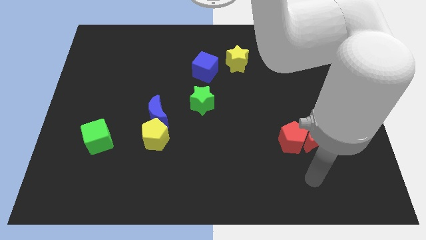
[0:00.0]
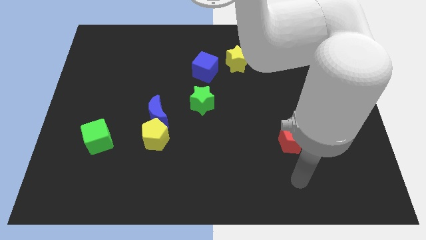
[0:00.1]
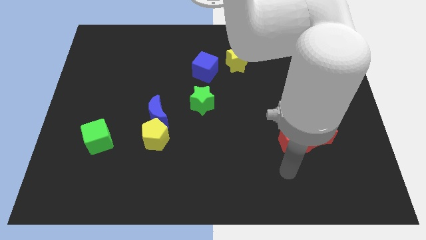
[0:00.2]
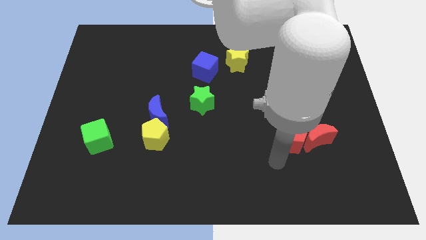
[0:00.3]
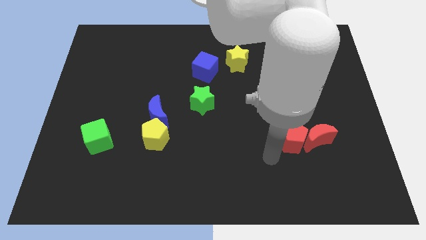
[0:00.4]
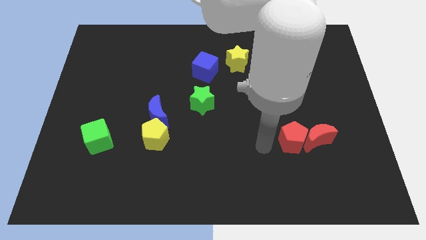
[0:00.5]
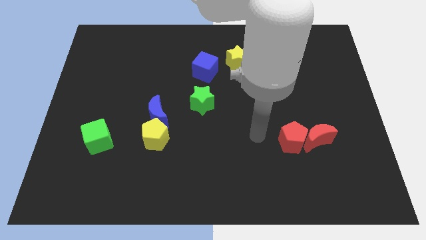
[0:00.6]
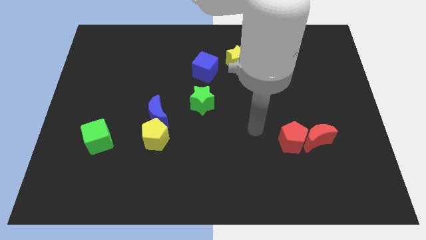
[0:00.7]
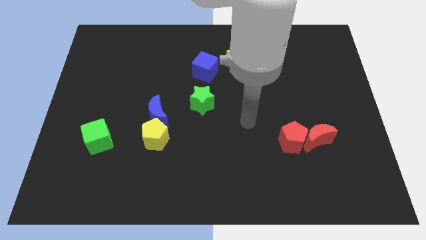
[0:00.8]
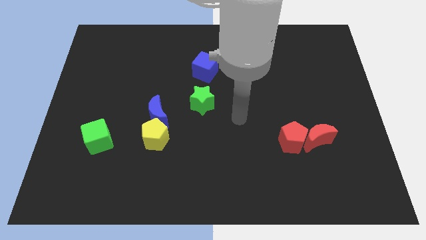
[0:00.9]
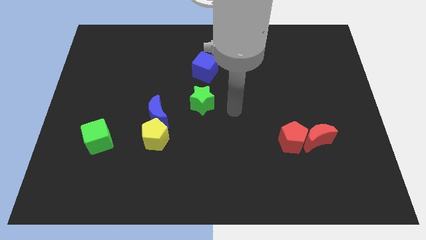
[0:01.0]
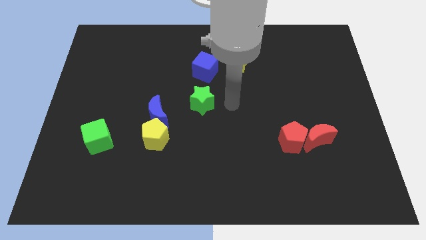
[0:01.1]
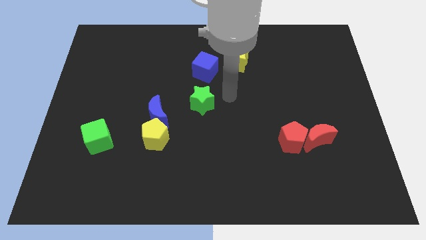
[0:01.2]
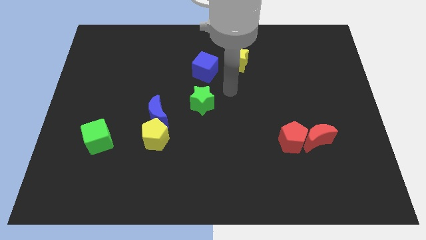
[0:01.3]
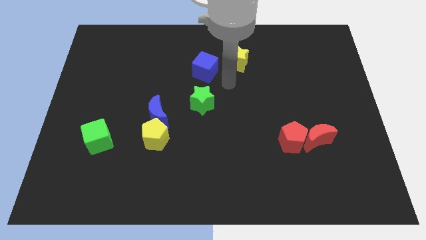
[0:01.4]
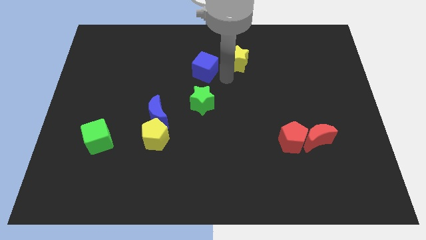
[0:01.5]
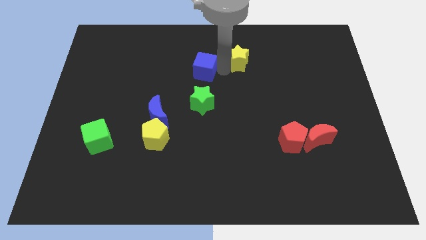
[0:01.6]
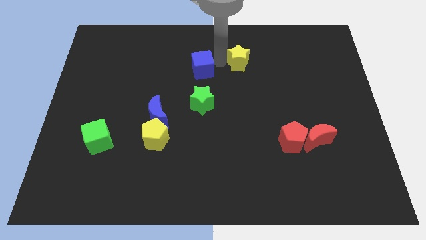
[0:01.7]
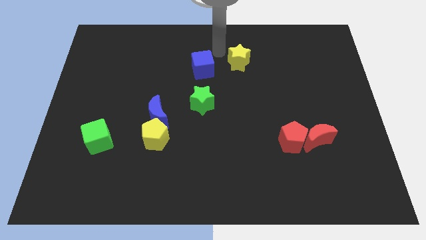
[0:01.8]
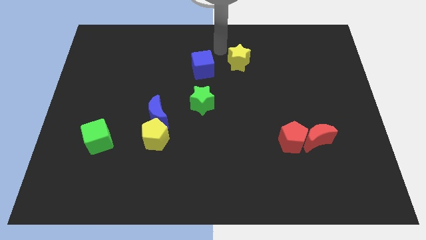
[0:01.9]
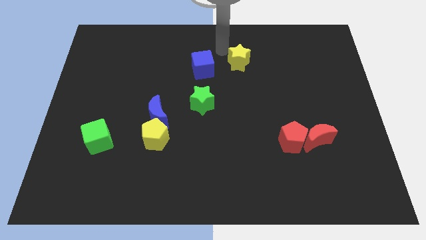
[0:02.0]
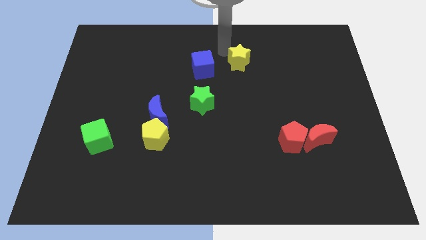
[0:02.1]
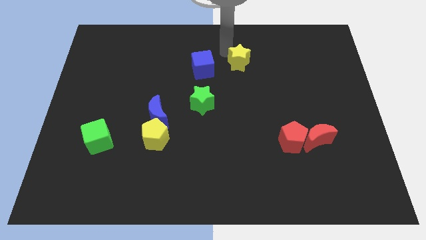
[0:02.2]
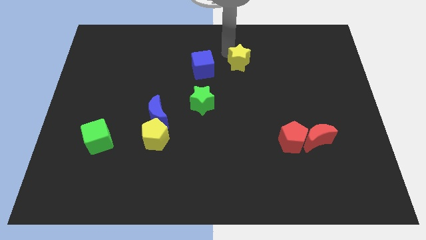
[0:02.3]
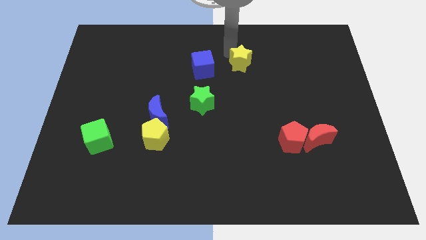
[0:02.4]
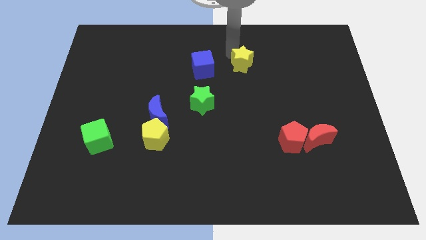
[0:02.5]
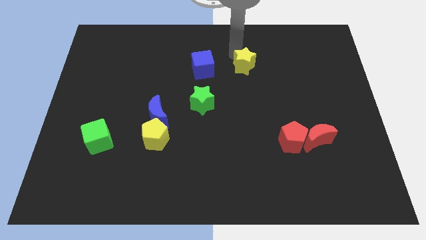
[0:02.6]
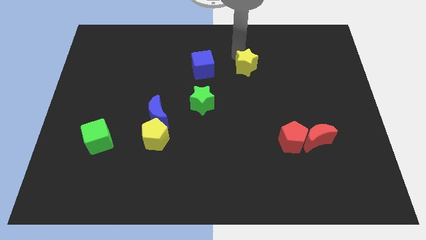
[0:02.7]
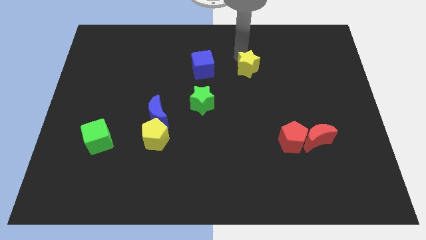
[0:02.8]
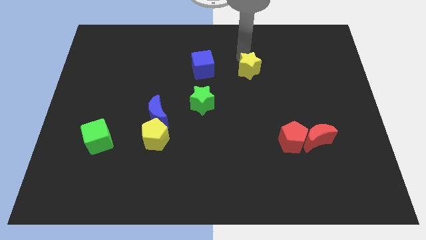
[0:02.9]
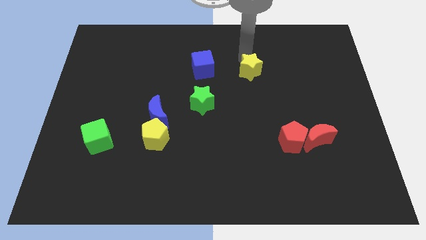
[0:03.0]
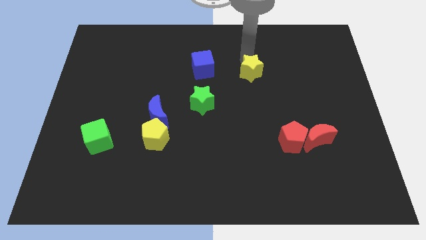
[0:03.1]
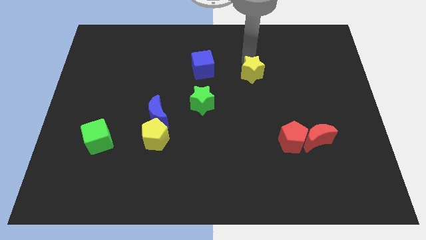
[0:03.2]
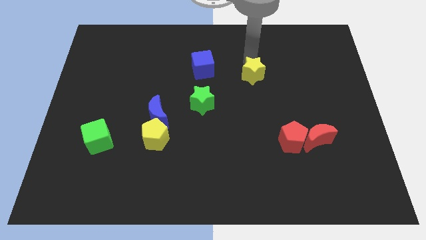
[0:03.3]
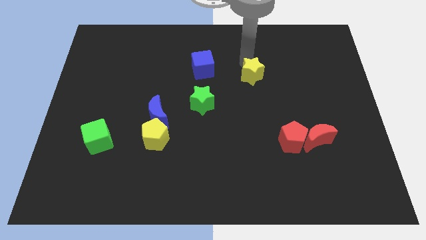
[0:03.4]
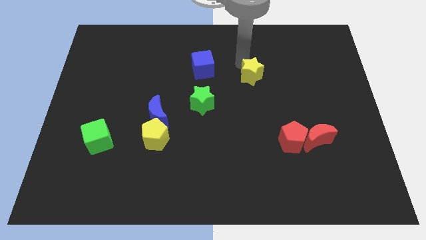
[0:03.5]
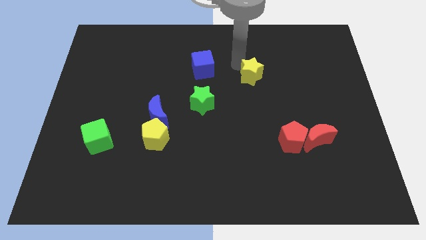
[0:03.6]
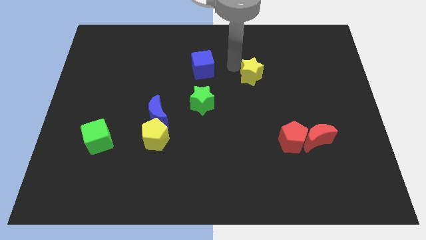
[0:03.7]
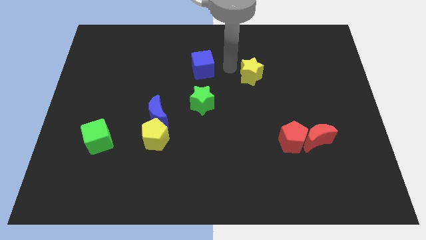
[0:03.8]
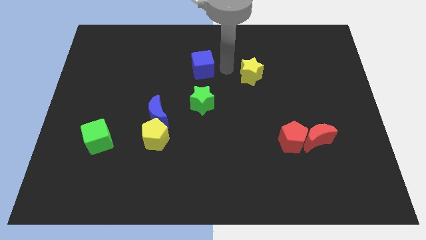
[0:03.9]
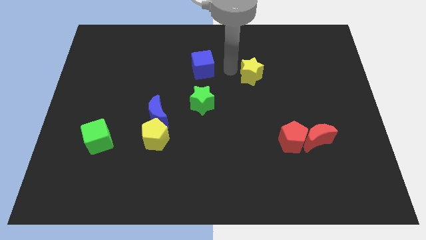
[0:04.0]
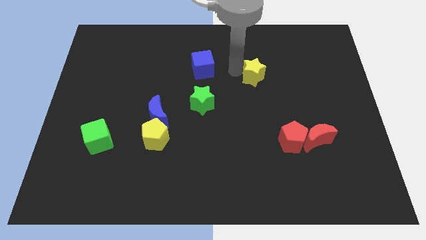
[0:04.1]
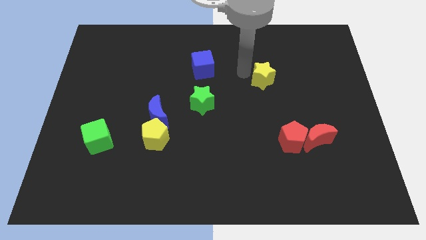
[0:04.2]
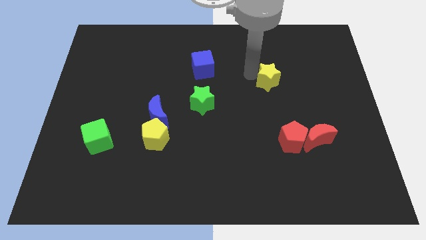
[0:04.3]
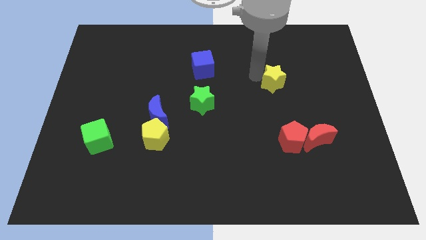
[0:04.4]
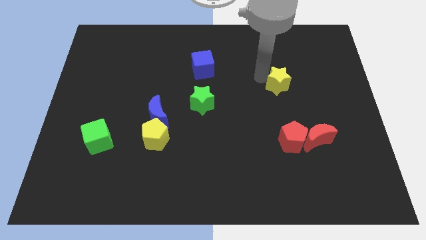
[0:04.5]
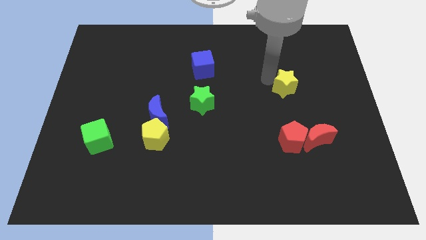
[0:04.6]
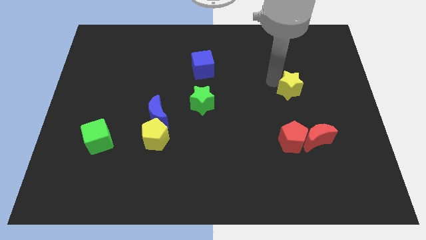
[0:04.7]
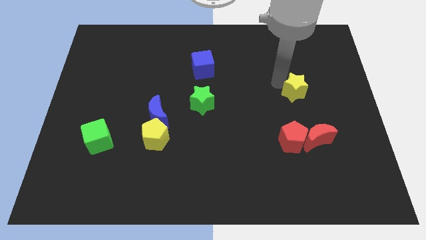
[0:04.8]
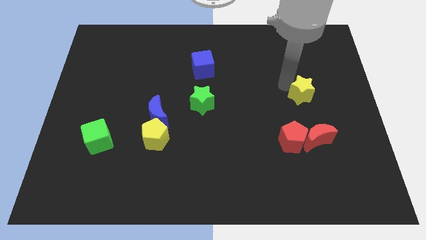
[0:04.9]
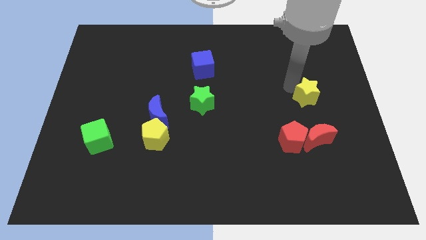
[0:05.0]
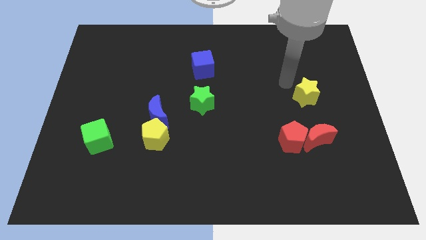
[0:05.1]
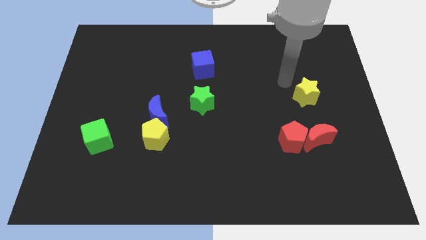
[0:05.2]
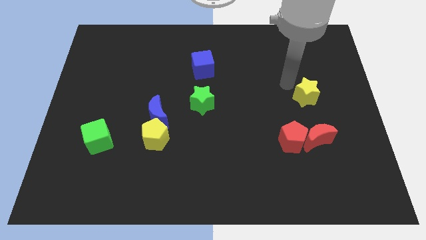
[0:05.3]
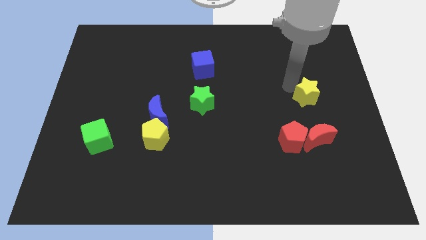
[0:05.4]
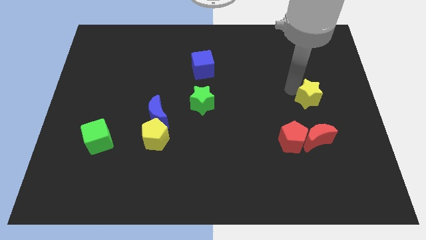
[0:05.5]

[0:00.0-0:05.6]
move the yellow star down and to the right

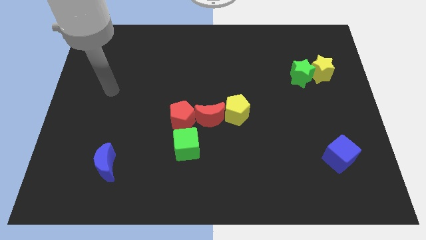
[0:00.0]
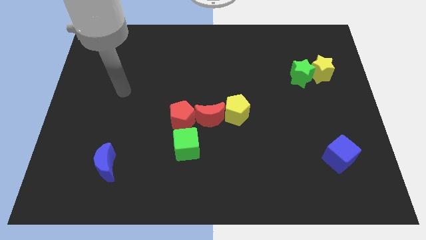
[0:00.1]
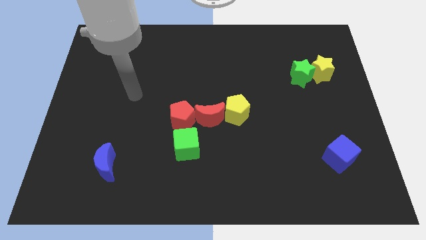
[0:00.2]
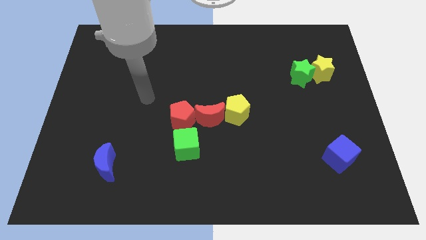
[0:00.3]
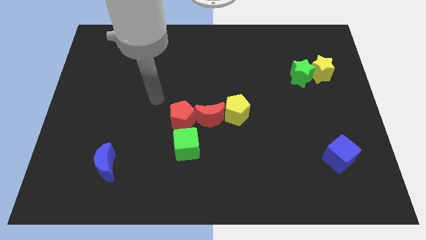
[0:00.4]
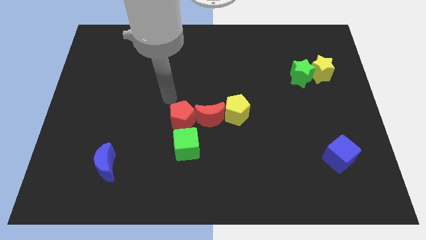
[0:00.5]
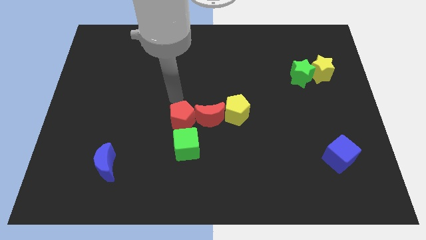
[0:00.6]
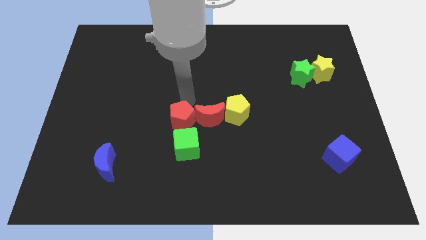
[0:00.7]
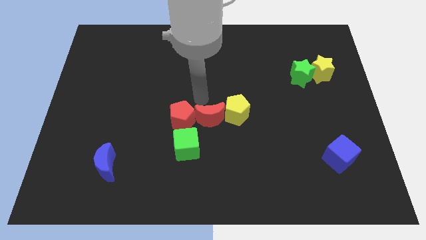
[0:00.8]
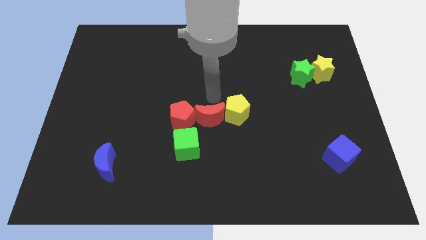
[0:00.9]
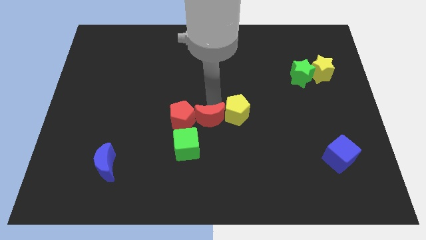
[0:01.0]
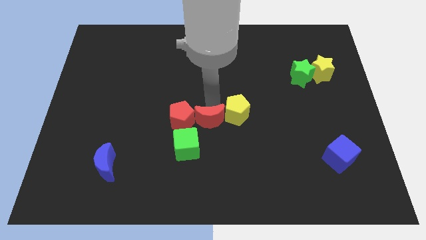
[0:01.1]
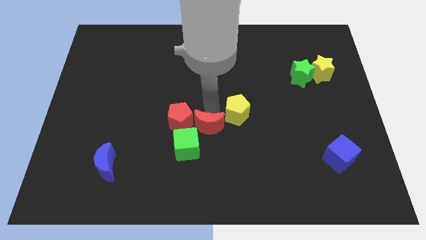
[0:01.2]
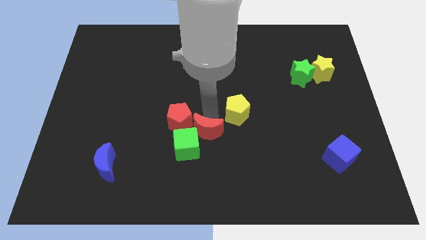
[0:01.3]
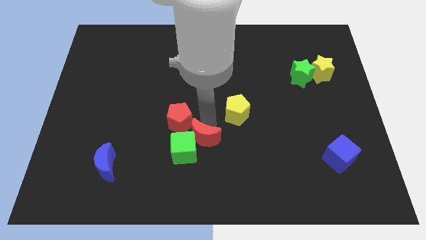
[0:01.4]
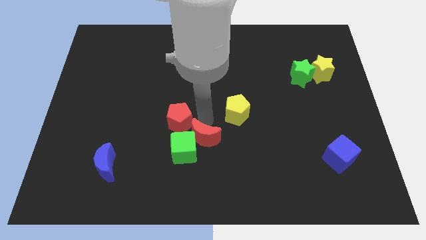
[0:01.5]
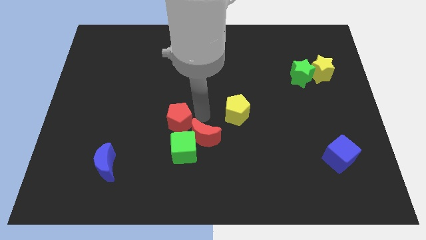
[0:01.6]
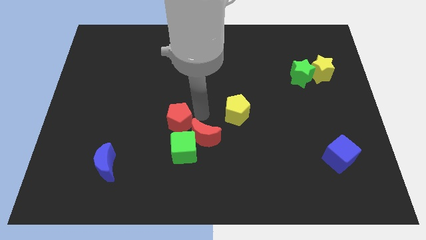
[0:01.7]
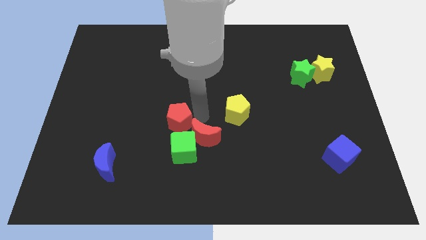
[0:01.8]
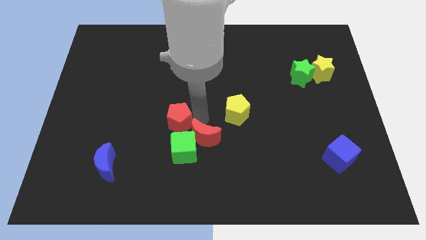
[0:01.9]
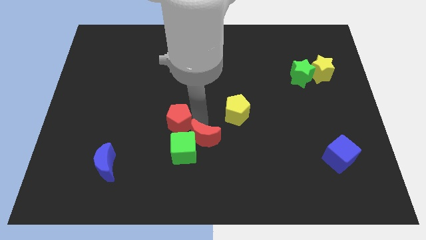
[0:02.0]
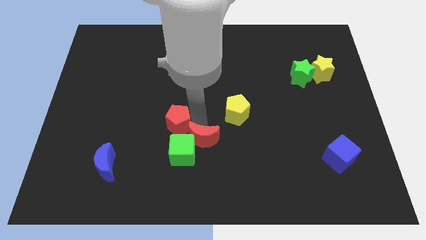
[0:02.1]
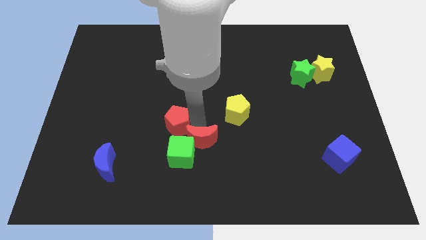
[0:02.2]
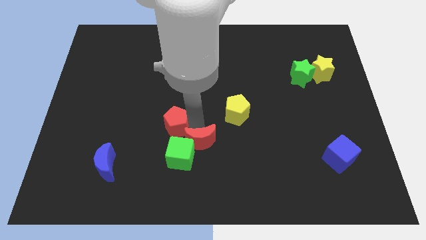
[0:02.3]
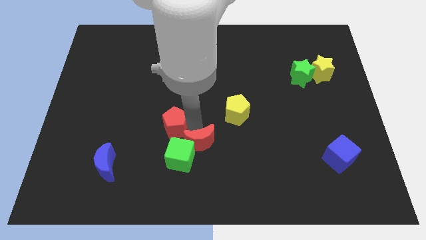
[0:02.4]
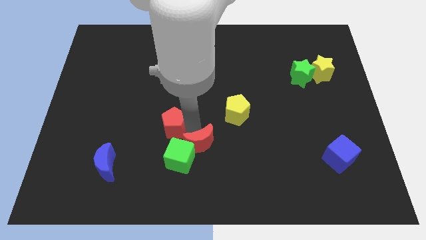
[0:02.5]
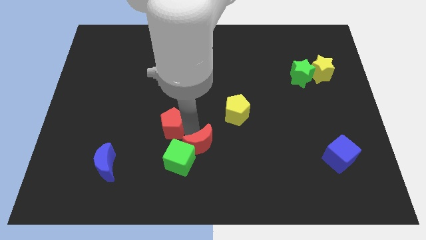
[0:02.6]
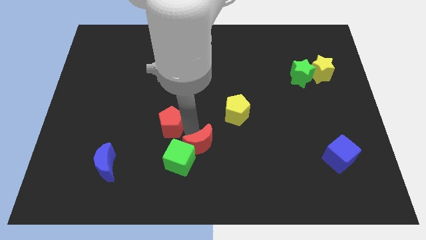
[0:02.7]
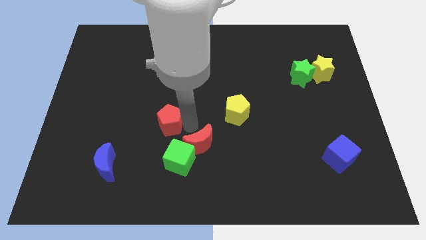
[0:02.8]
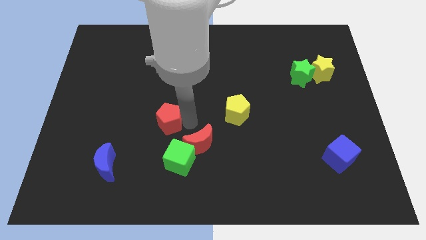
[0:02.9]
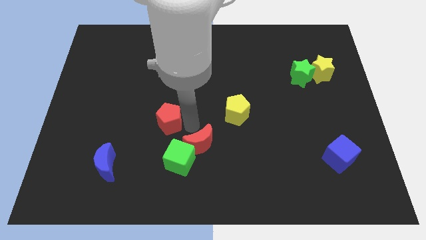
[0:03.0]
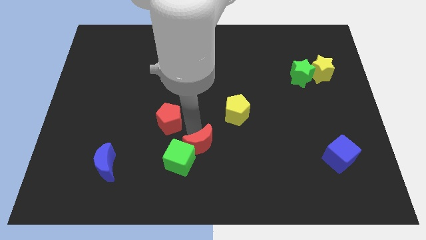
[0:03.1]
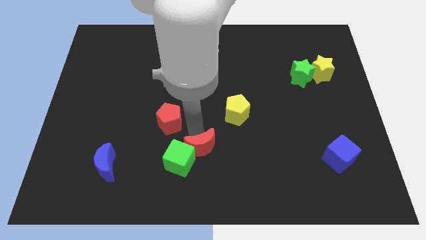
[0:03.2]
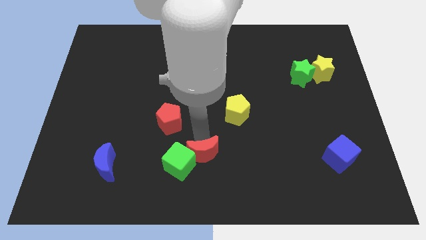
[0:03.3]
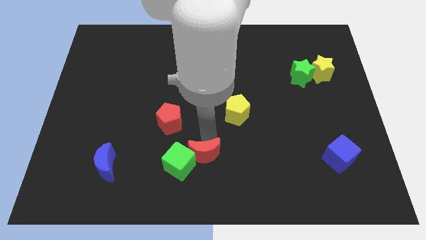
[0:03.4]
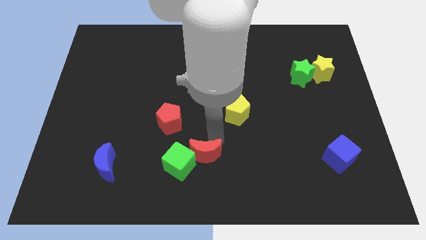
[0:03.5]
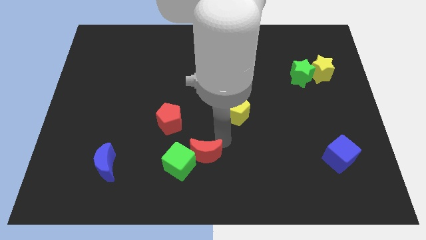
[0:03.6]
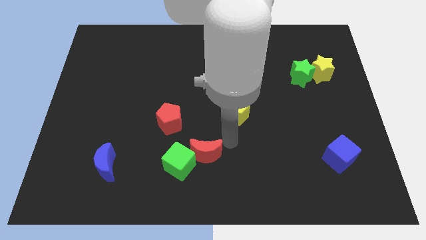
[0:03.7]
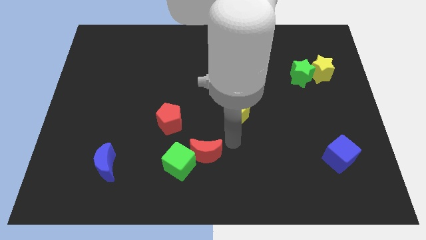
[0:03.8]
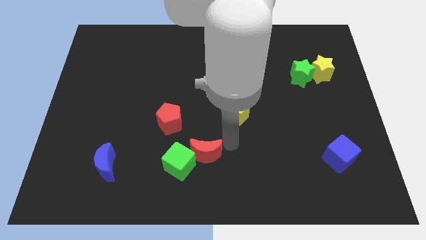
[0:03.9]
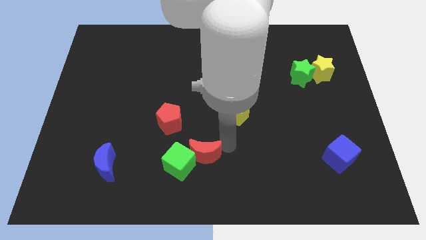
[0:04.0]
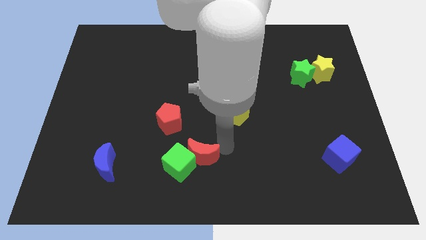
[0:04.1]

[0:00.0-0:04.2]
slide the red moon a little downwards and then to the left
